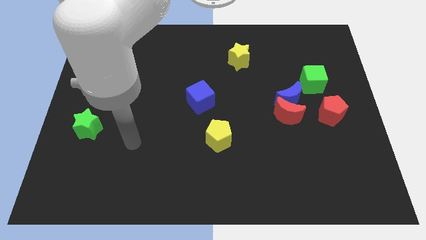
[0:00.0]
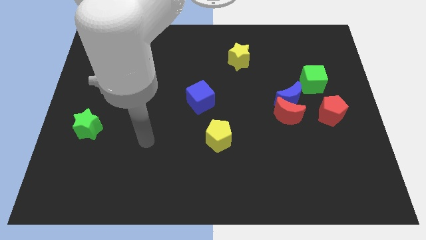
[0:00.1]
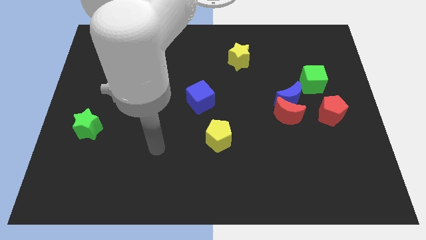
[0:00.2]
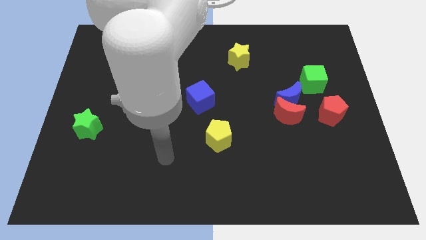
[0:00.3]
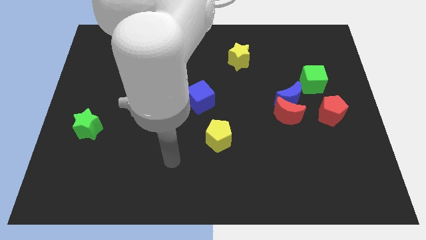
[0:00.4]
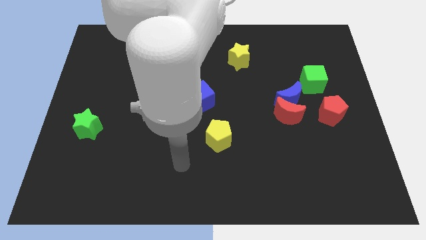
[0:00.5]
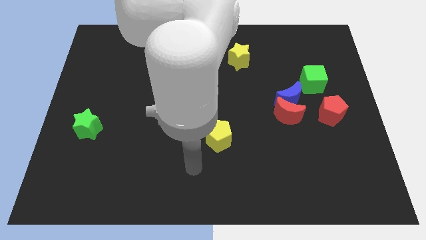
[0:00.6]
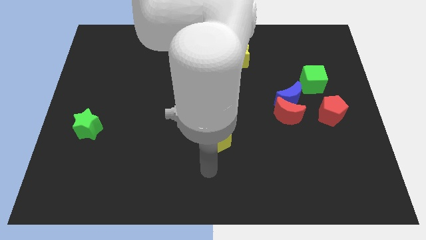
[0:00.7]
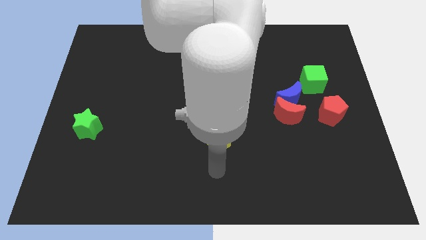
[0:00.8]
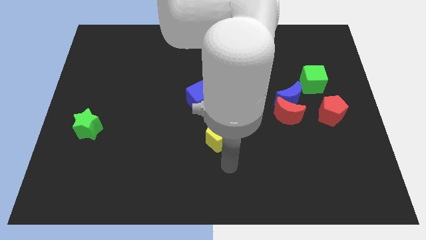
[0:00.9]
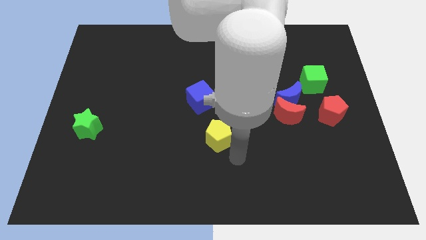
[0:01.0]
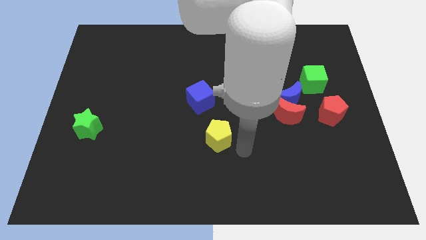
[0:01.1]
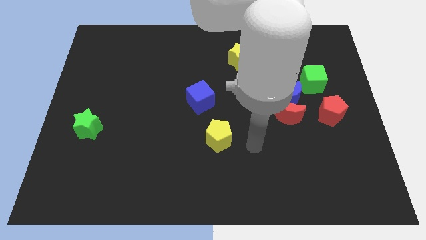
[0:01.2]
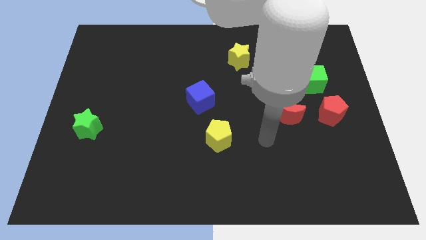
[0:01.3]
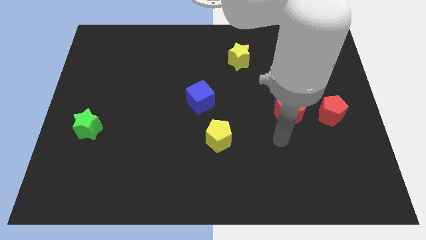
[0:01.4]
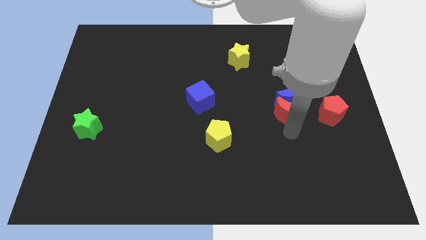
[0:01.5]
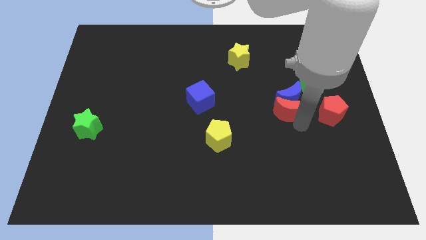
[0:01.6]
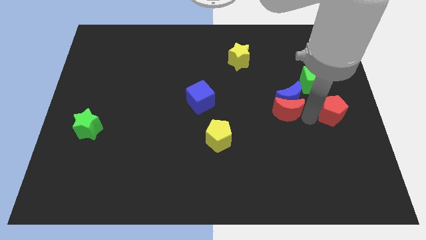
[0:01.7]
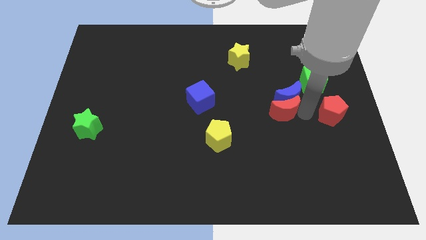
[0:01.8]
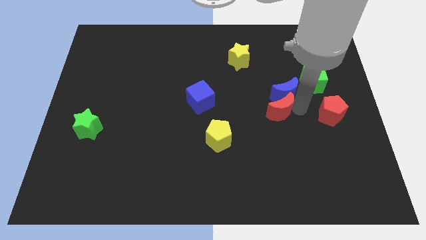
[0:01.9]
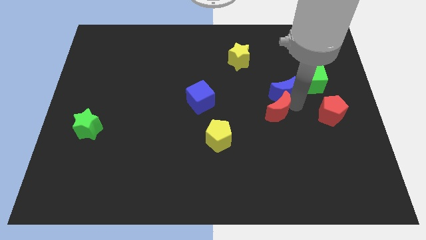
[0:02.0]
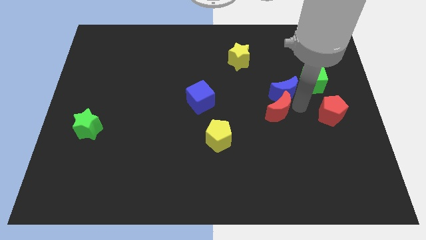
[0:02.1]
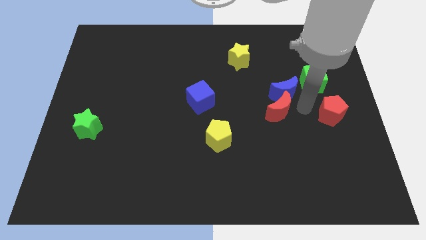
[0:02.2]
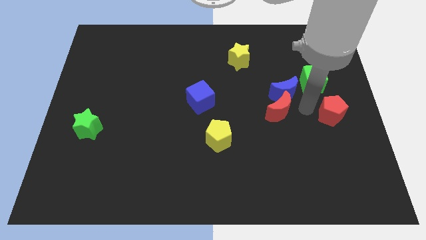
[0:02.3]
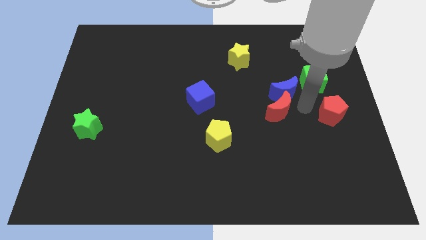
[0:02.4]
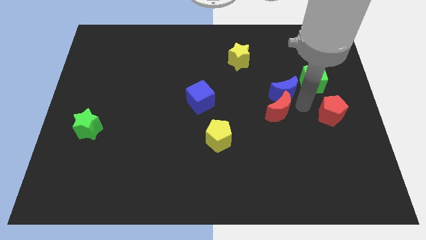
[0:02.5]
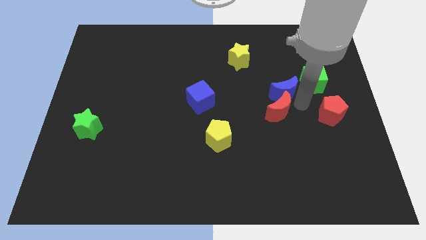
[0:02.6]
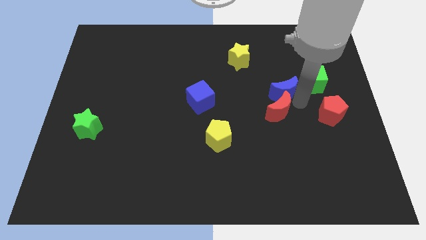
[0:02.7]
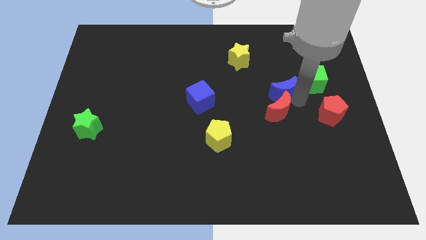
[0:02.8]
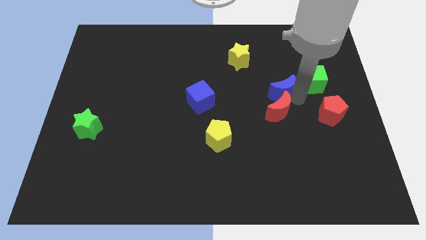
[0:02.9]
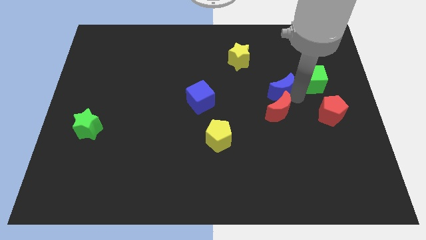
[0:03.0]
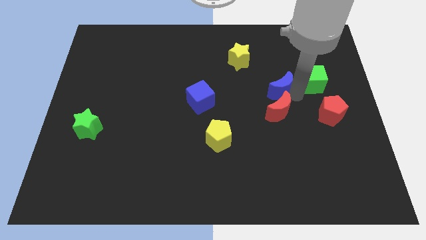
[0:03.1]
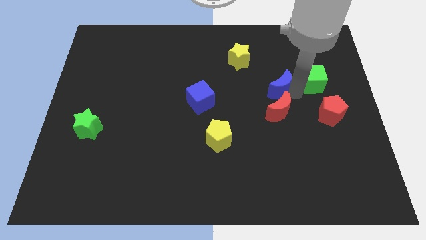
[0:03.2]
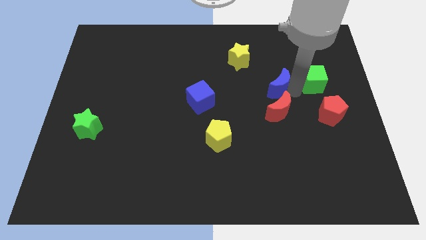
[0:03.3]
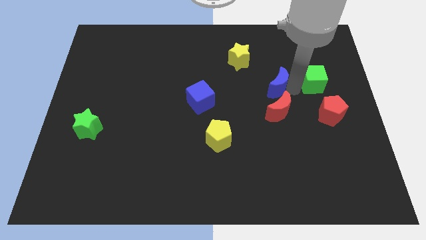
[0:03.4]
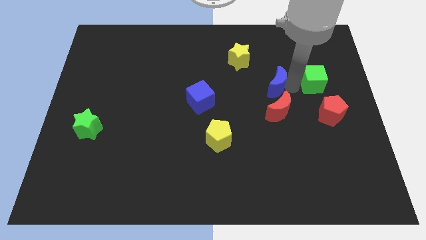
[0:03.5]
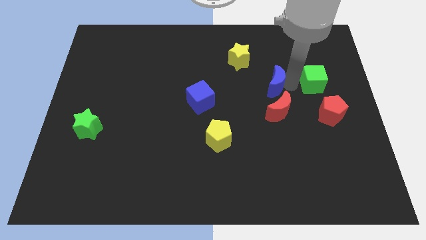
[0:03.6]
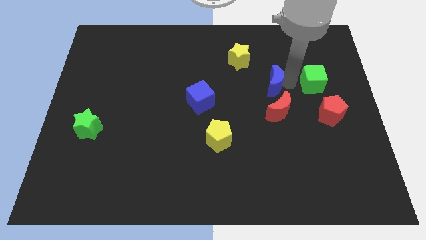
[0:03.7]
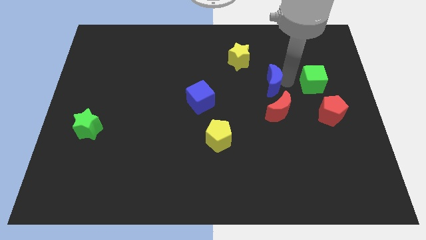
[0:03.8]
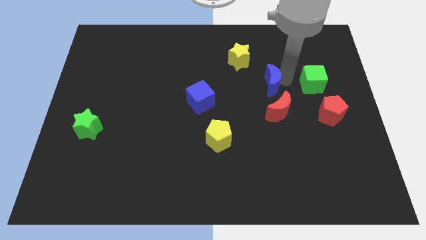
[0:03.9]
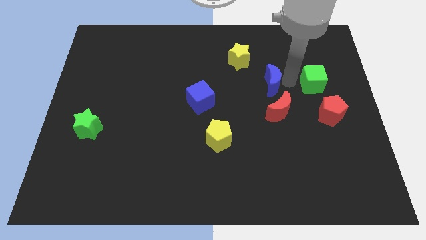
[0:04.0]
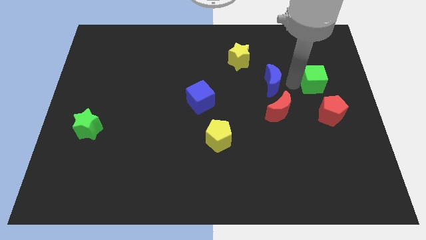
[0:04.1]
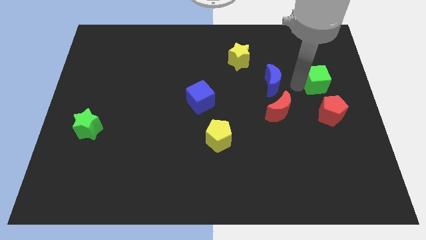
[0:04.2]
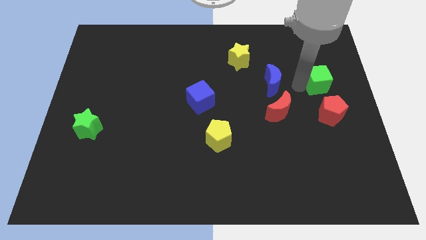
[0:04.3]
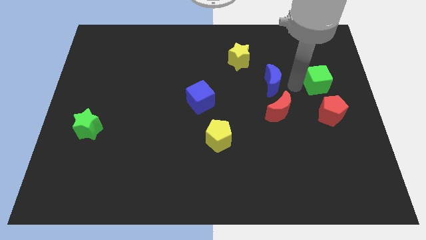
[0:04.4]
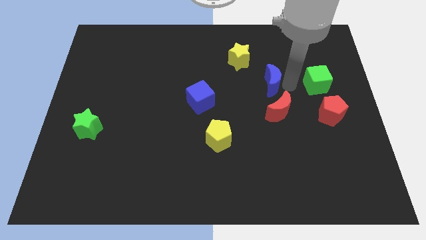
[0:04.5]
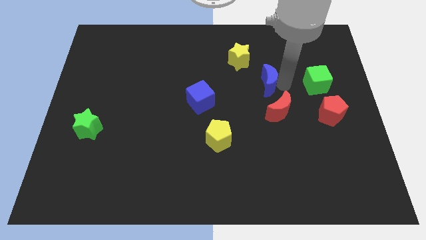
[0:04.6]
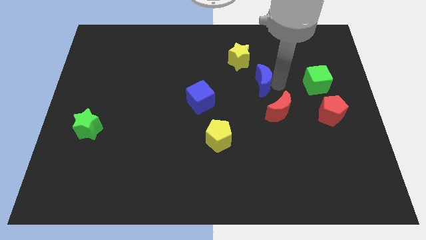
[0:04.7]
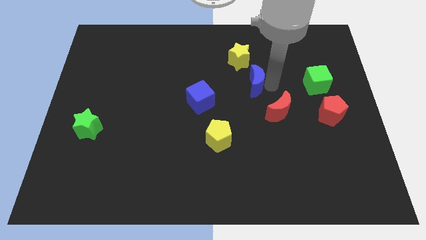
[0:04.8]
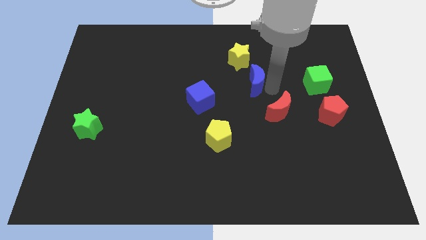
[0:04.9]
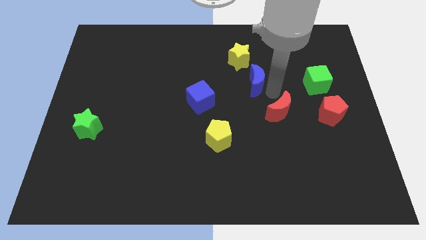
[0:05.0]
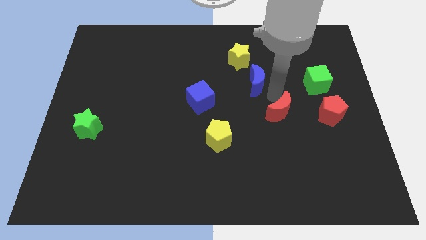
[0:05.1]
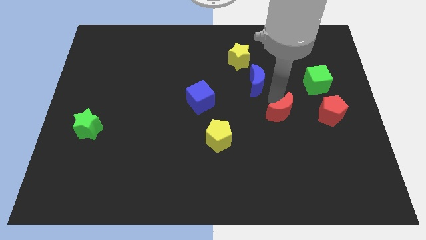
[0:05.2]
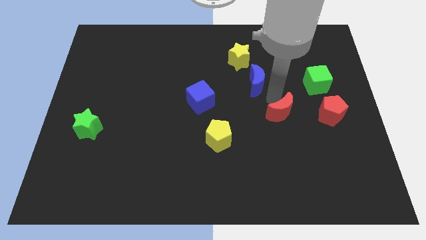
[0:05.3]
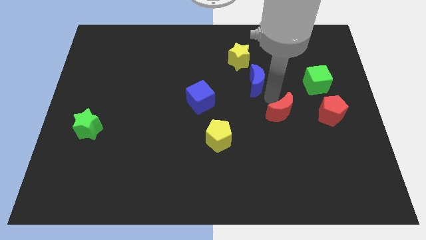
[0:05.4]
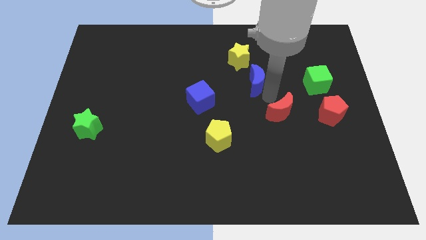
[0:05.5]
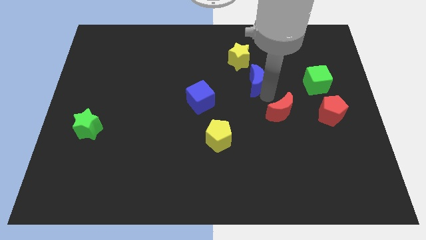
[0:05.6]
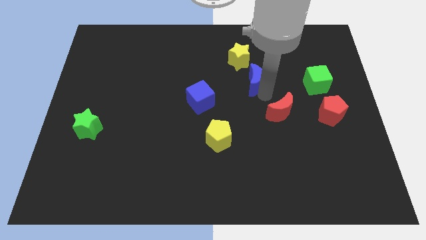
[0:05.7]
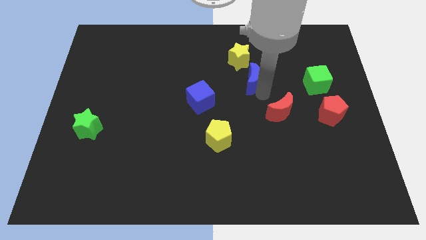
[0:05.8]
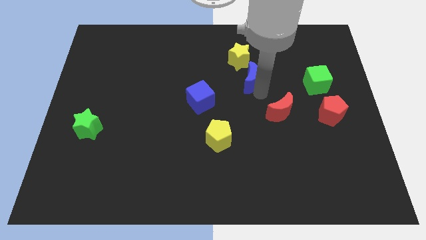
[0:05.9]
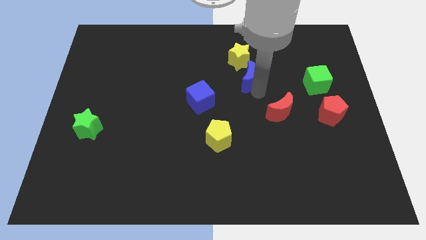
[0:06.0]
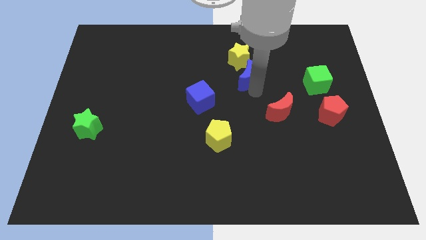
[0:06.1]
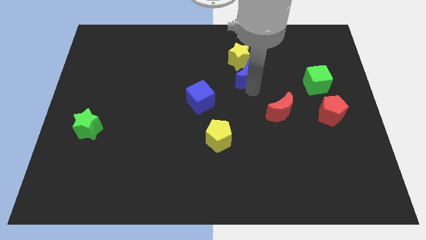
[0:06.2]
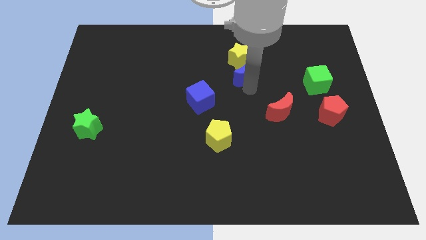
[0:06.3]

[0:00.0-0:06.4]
put the blue moon close to the yellow star
